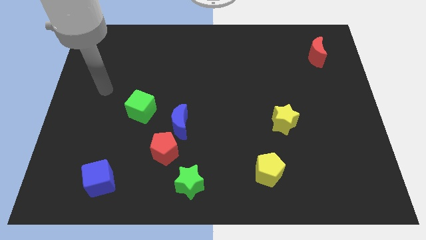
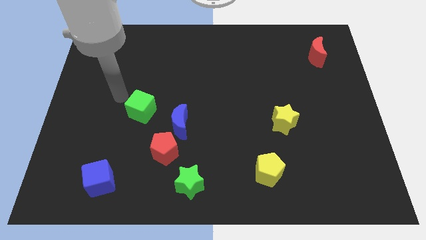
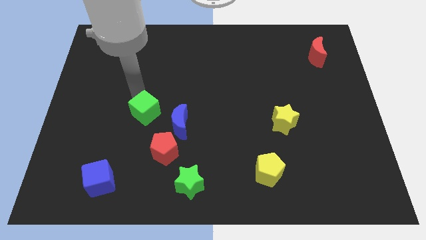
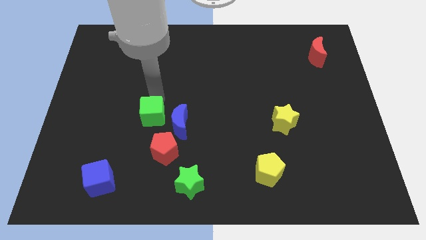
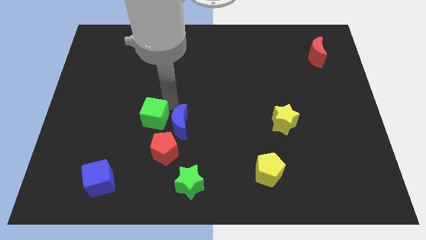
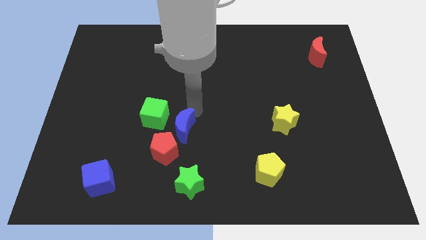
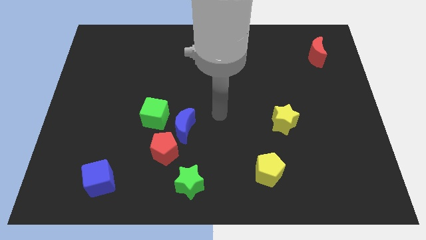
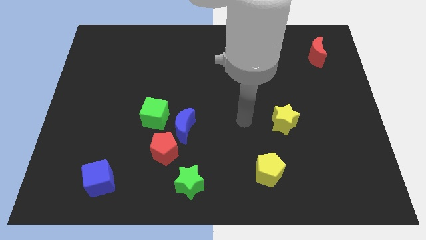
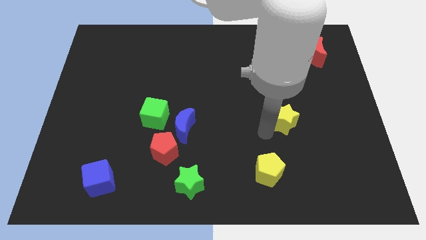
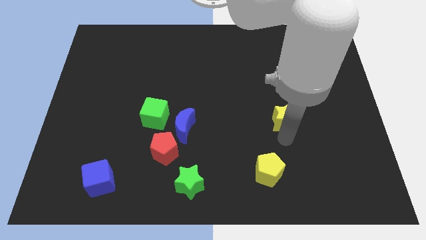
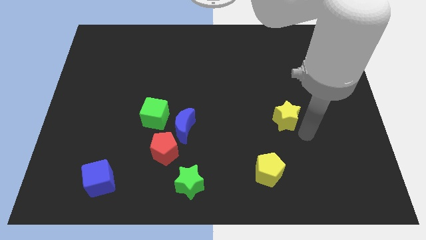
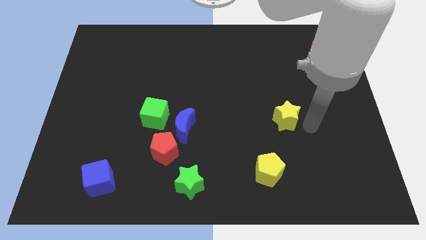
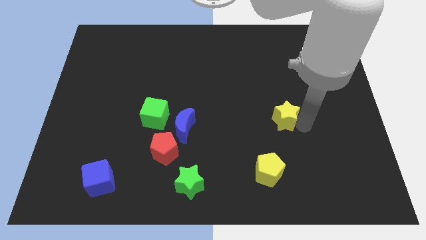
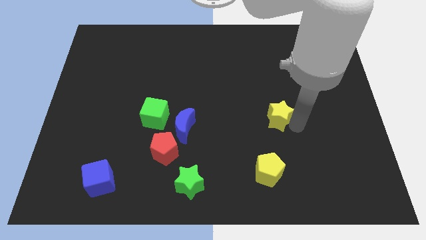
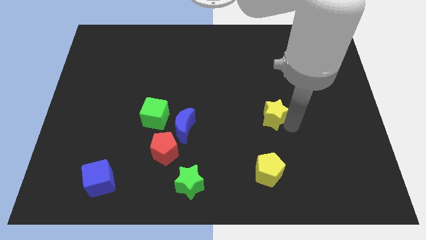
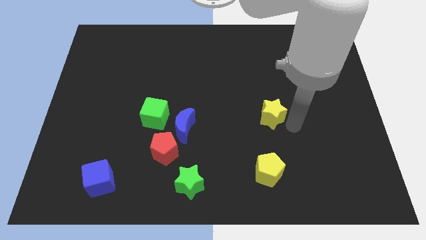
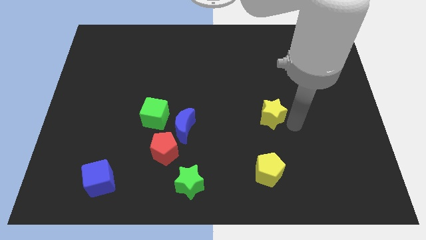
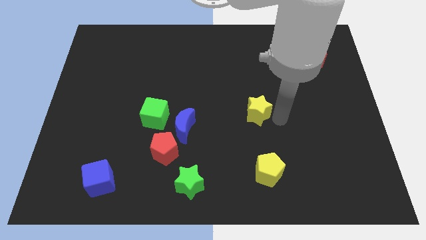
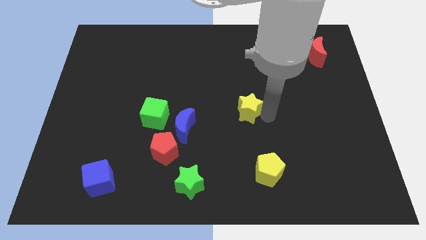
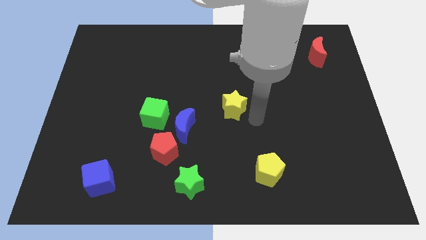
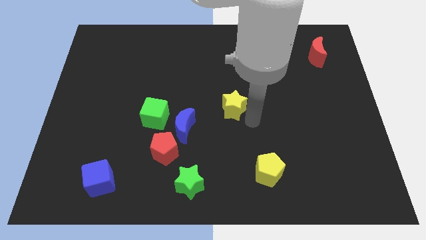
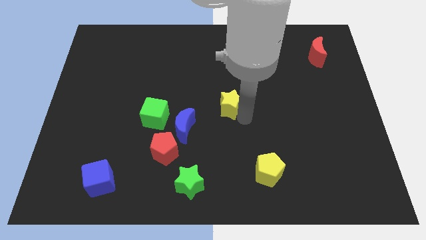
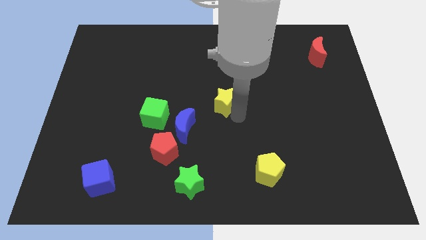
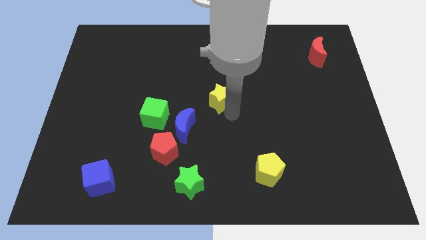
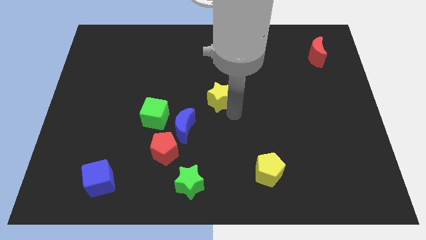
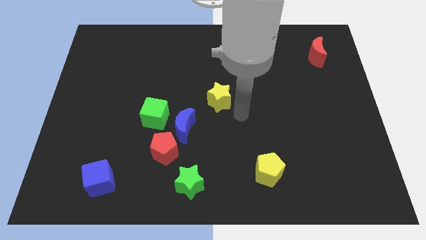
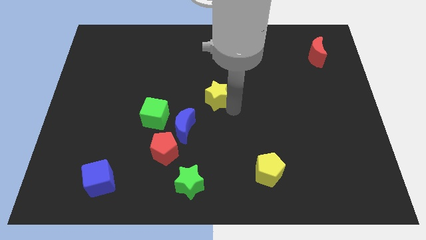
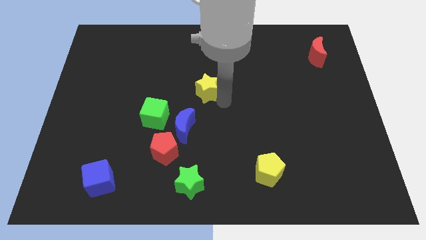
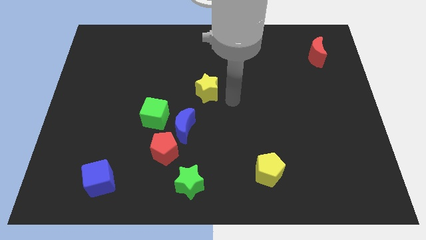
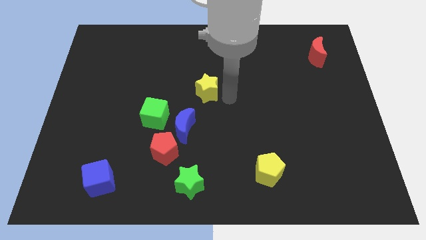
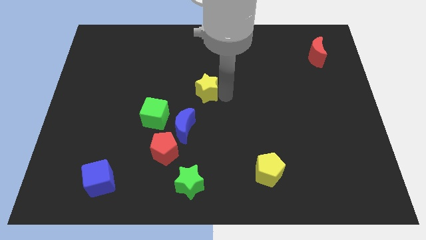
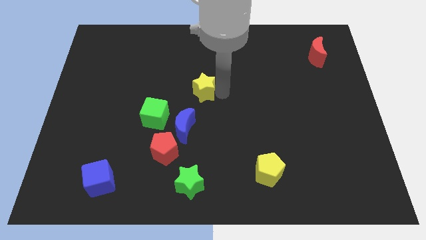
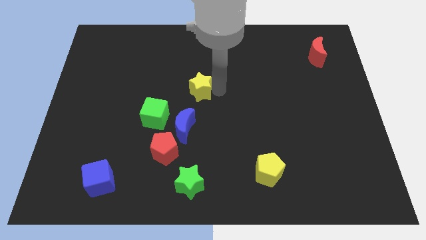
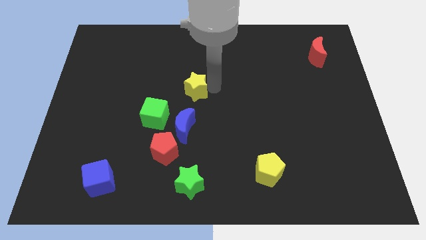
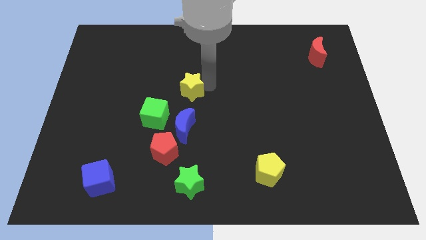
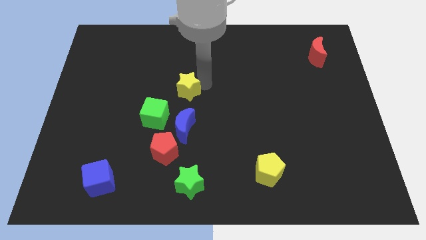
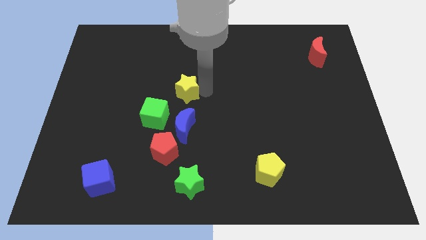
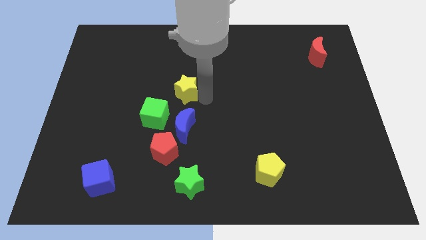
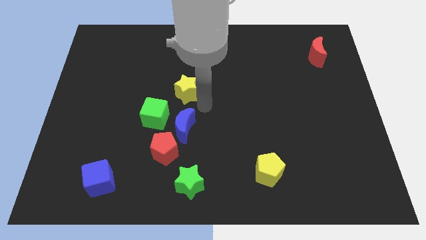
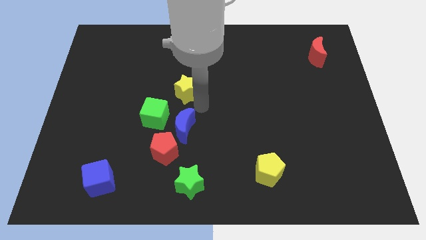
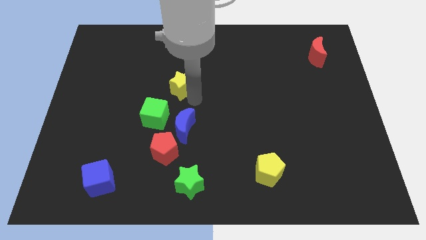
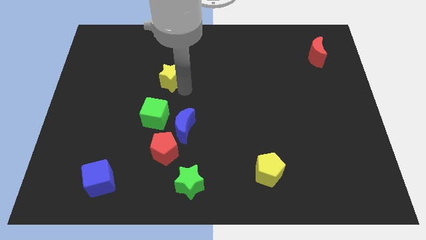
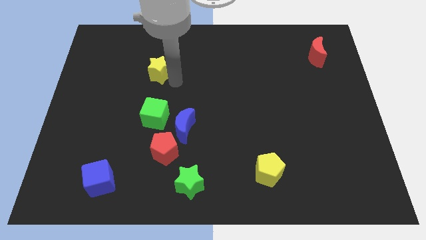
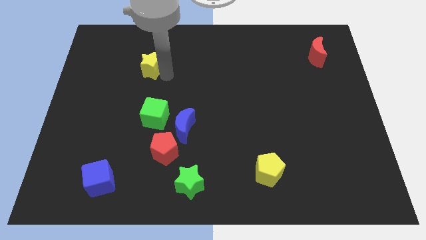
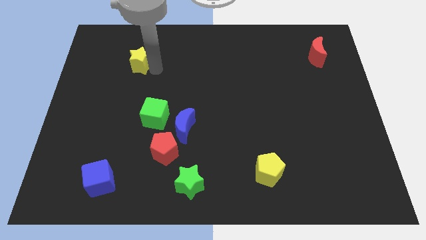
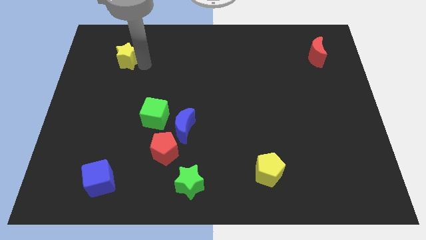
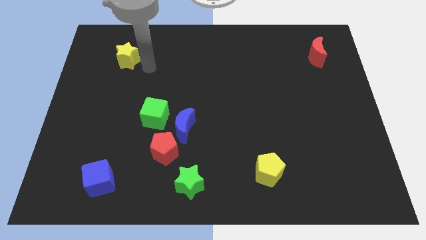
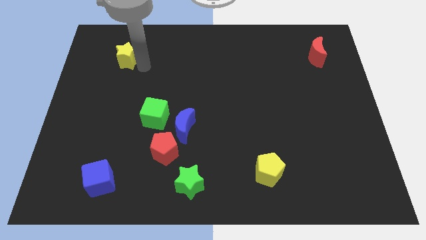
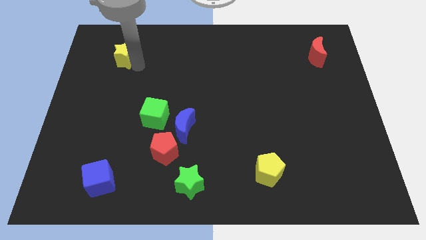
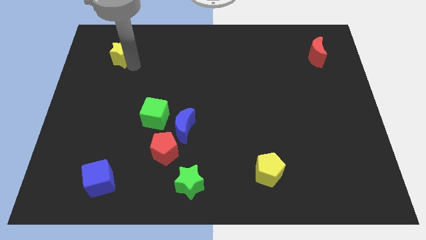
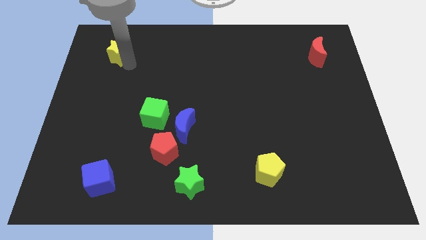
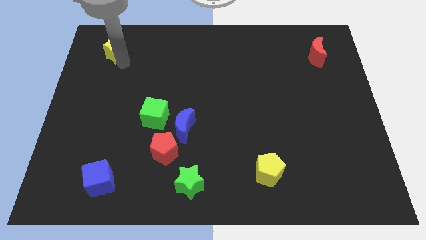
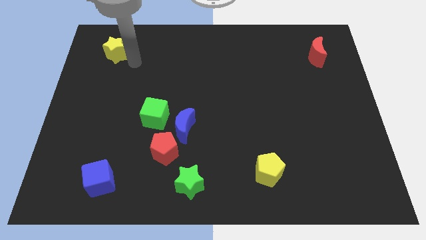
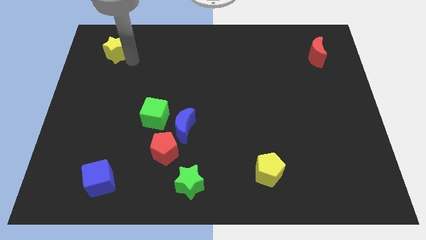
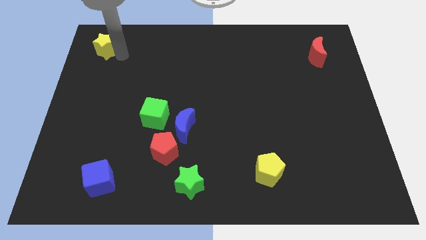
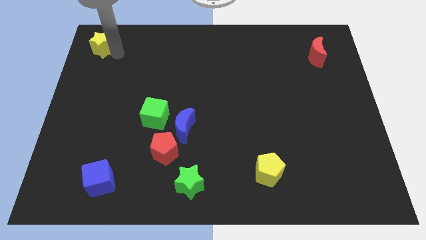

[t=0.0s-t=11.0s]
move the yellow star to the top left

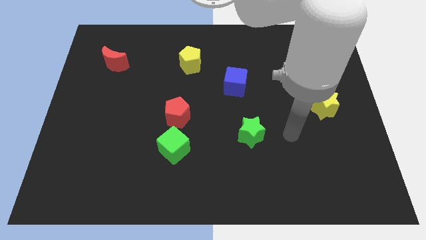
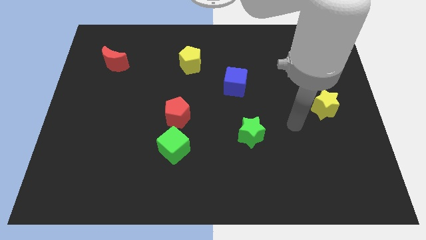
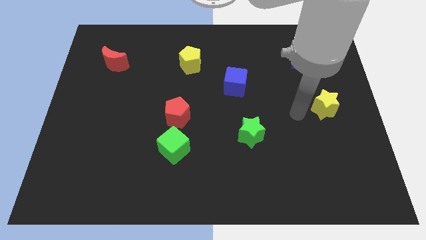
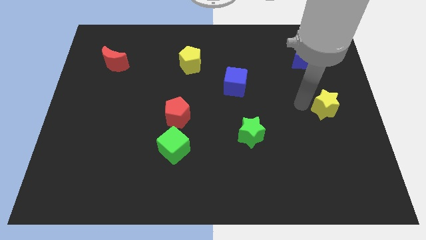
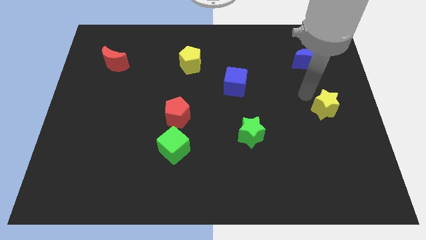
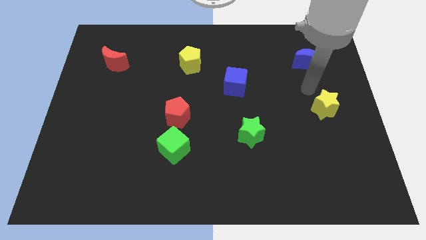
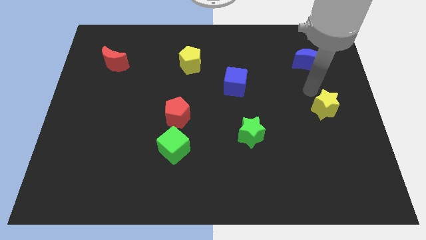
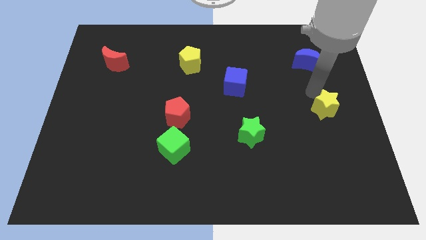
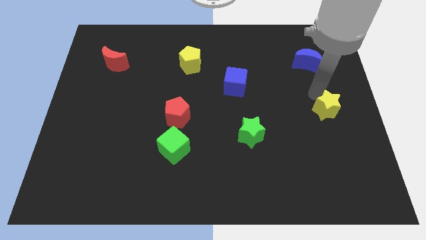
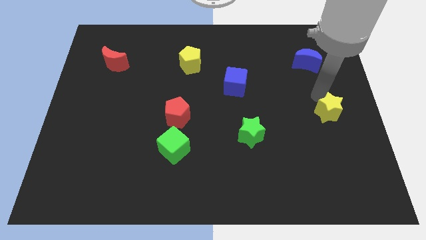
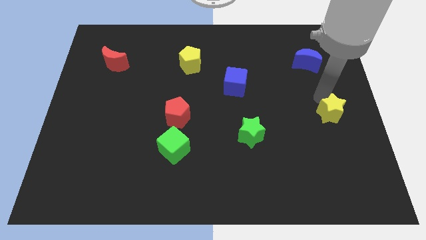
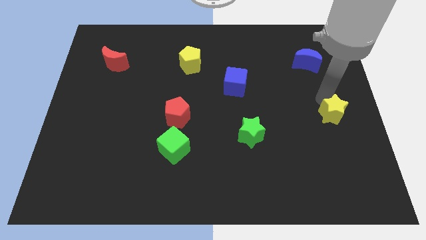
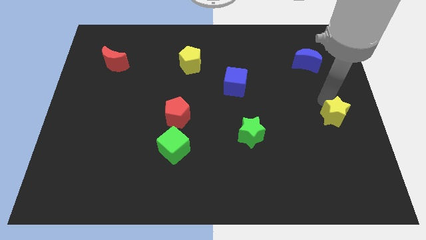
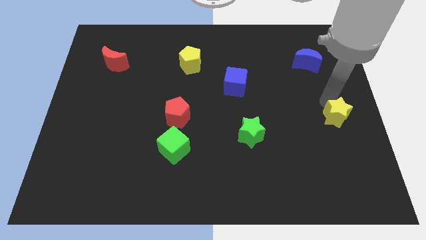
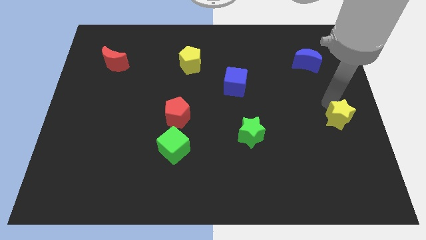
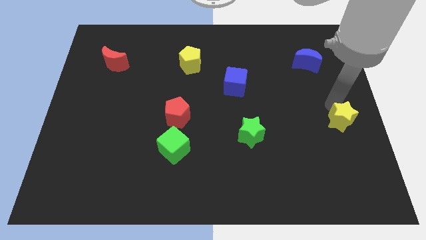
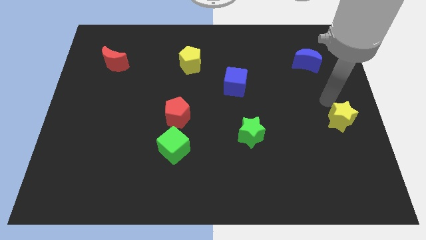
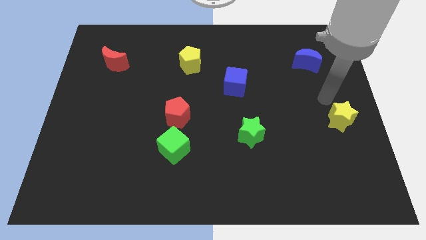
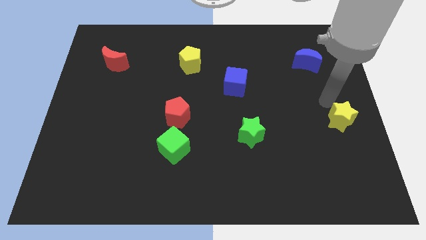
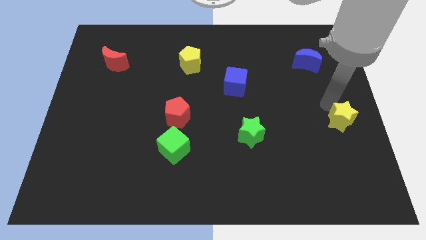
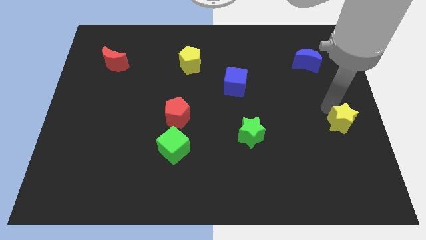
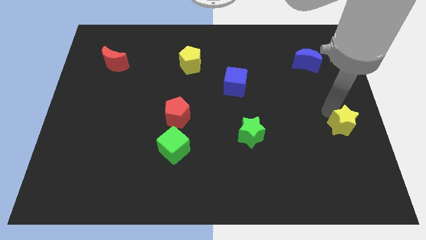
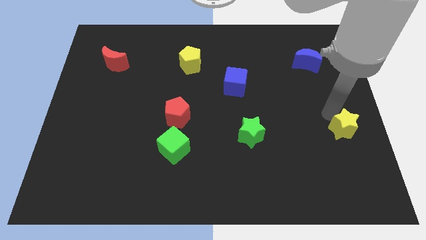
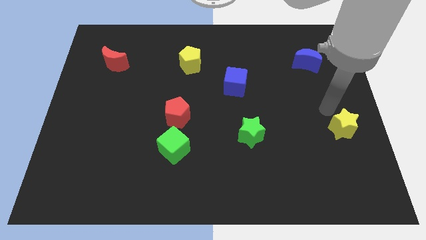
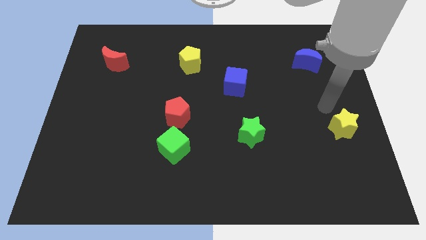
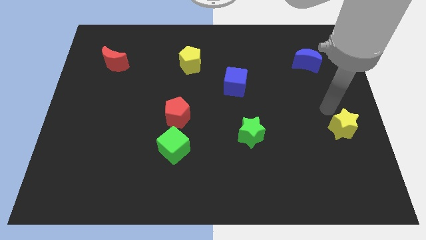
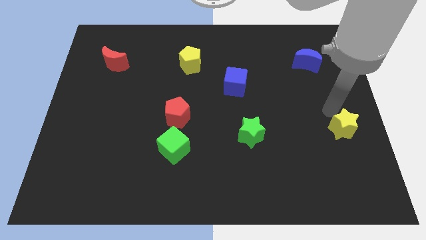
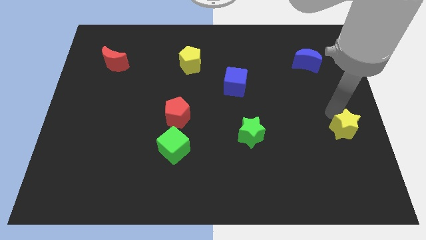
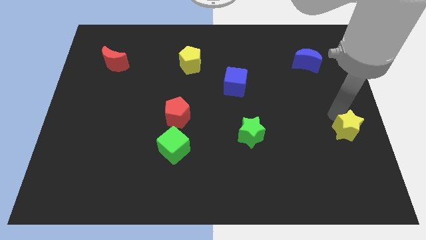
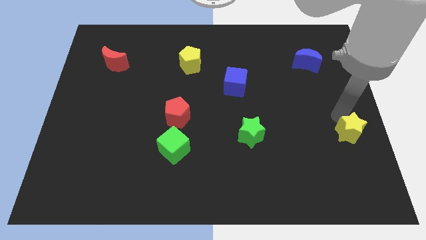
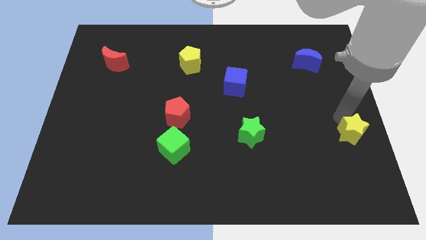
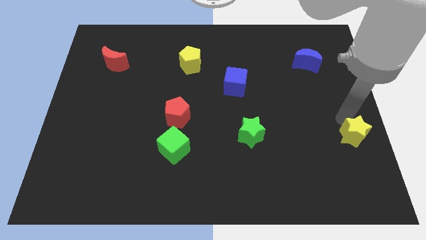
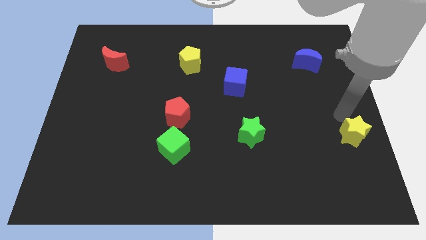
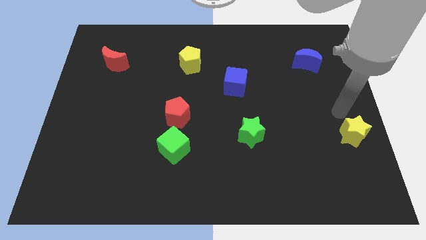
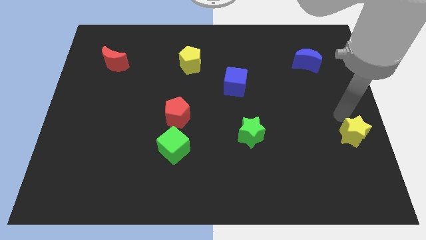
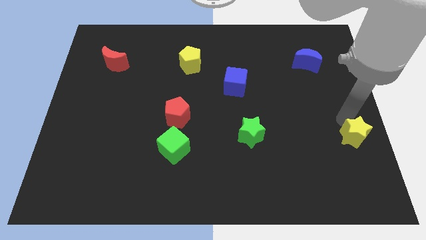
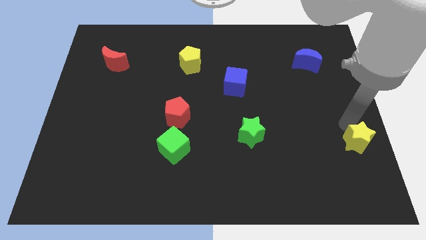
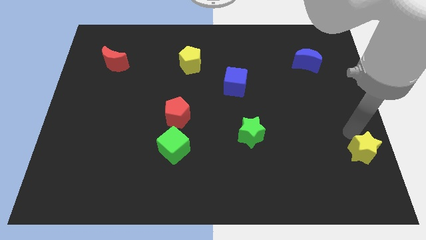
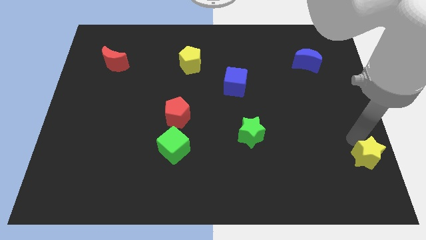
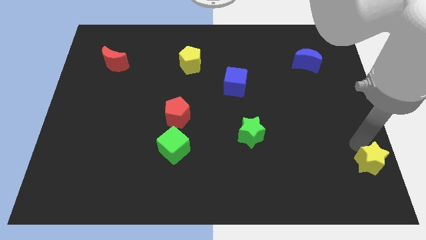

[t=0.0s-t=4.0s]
slide the yellow star to the bottom right of the board
